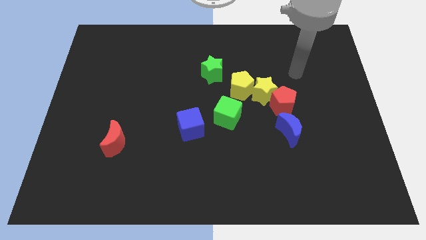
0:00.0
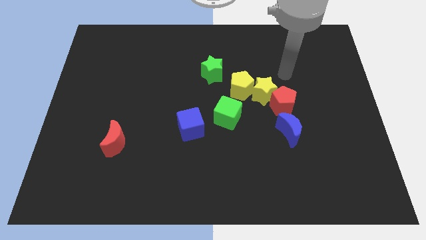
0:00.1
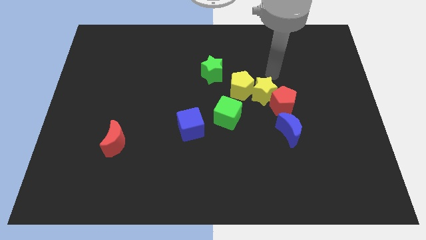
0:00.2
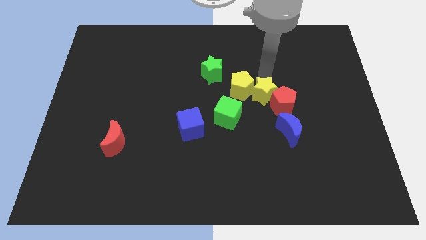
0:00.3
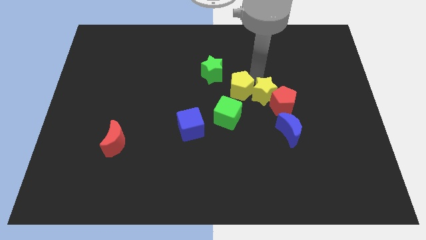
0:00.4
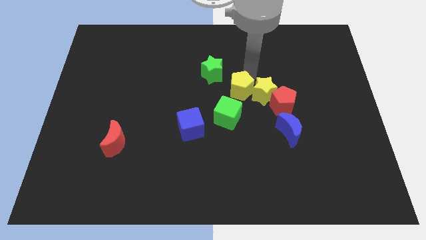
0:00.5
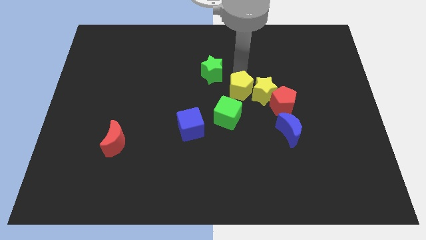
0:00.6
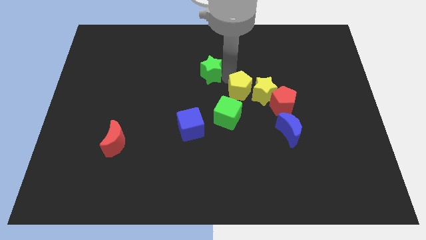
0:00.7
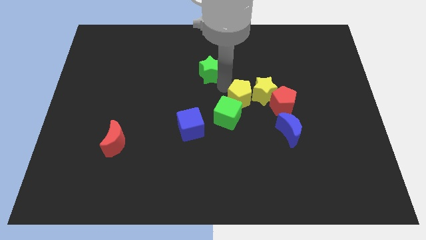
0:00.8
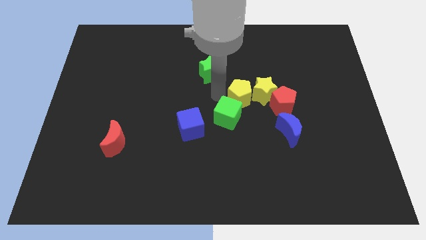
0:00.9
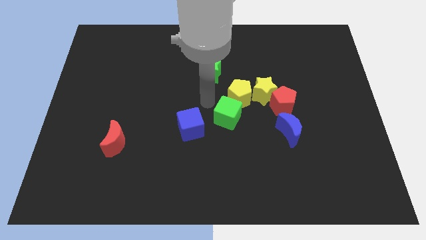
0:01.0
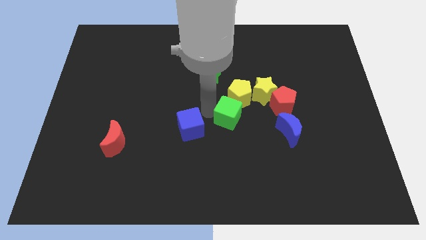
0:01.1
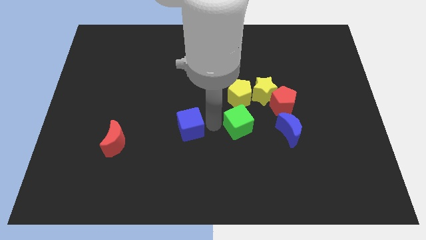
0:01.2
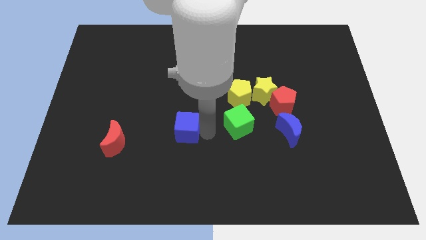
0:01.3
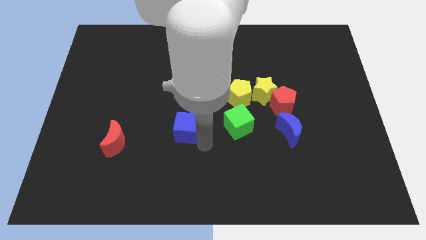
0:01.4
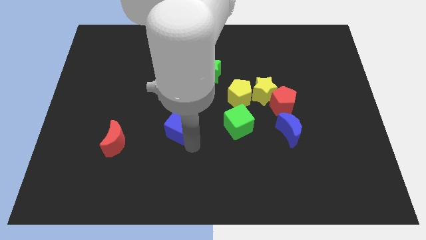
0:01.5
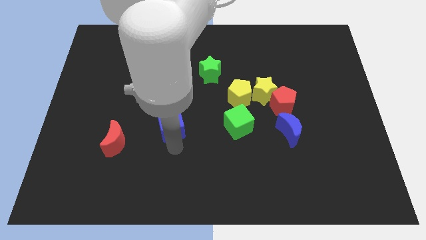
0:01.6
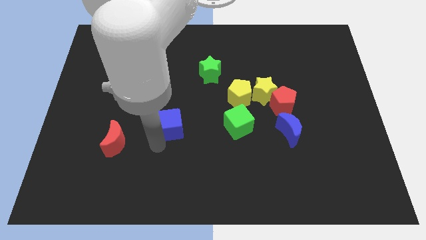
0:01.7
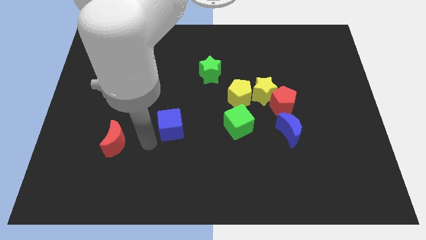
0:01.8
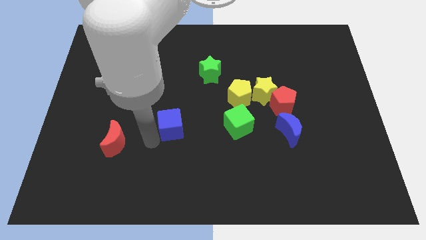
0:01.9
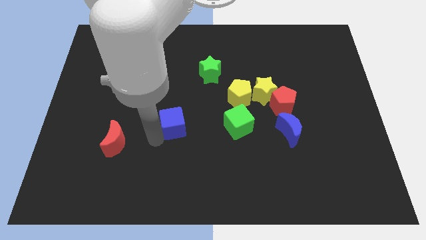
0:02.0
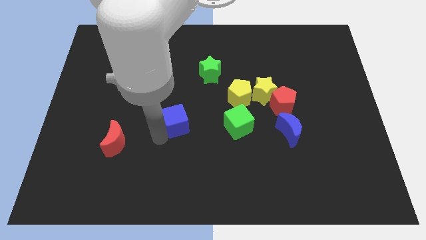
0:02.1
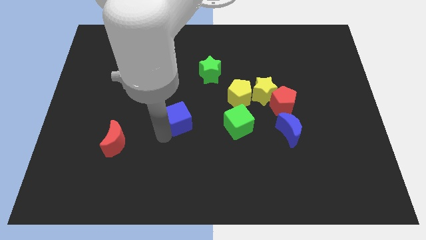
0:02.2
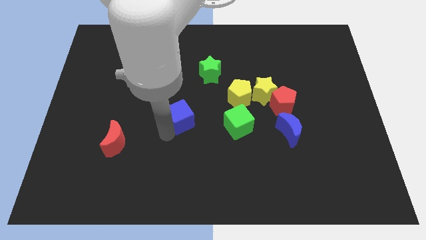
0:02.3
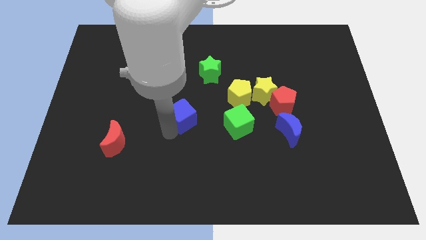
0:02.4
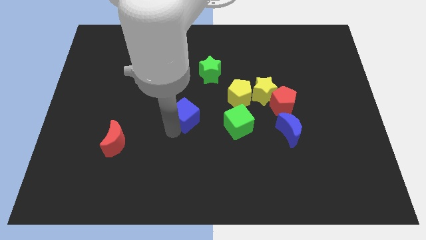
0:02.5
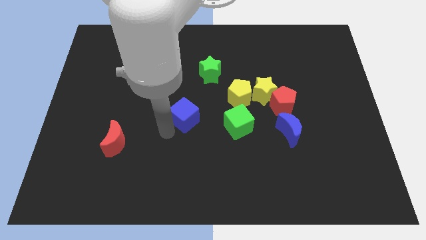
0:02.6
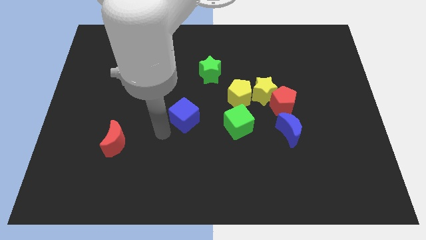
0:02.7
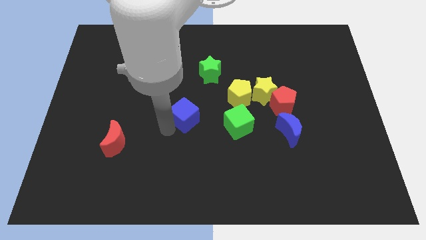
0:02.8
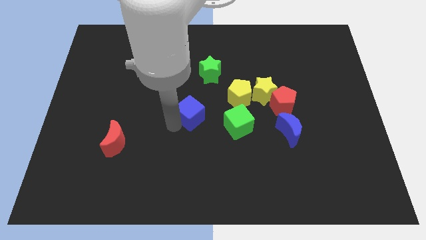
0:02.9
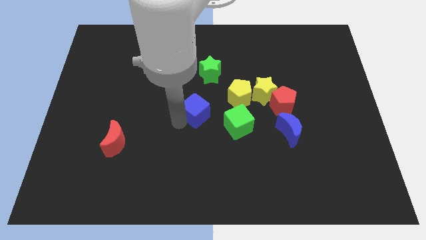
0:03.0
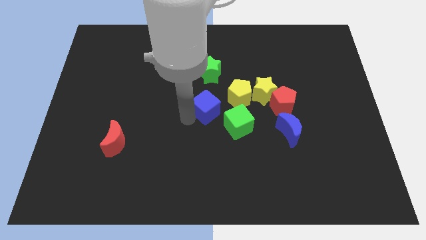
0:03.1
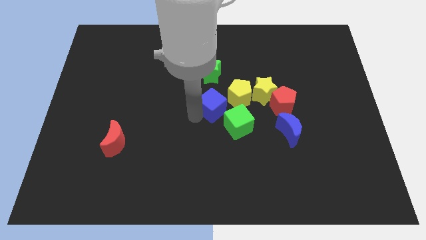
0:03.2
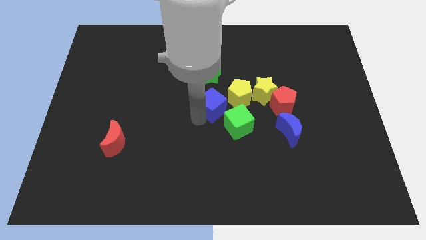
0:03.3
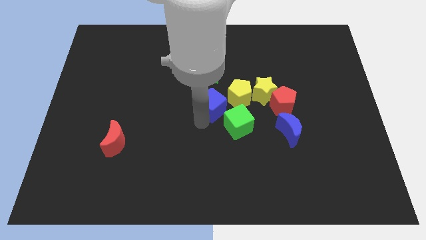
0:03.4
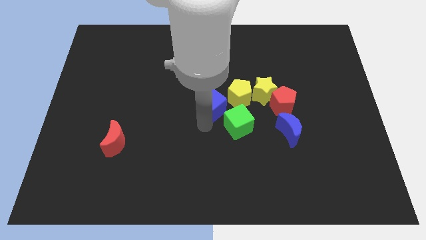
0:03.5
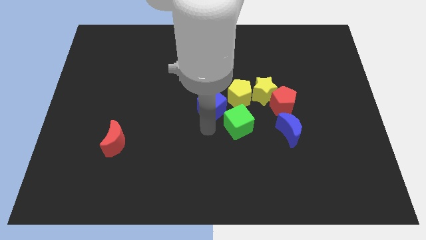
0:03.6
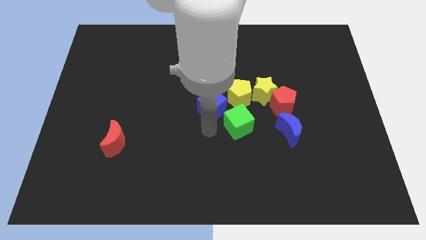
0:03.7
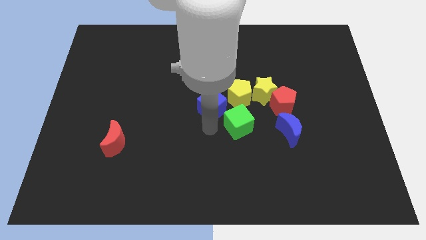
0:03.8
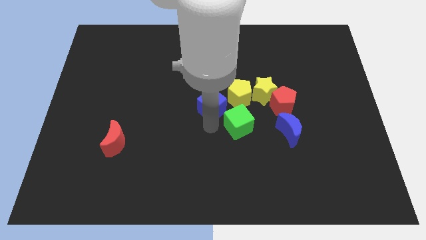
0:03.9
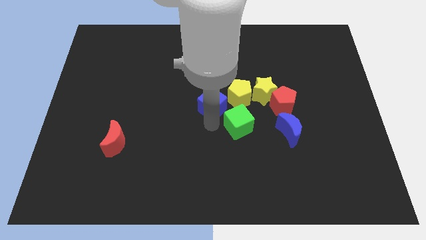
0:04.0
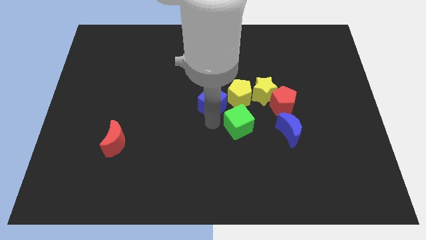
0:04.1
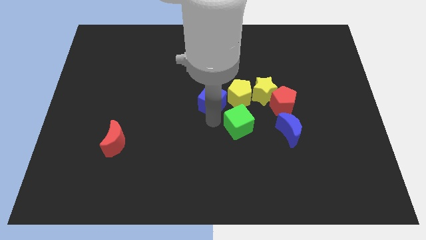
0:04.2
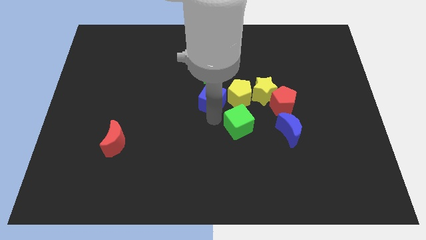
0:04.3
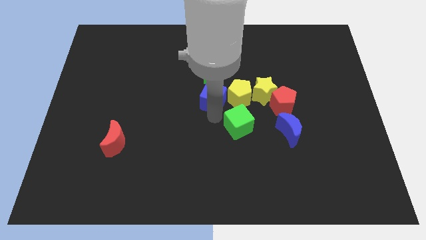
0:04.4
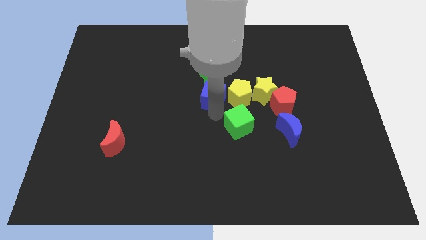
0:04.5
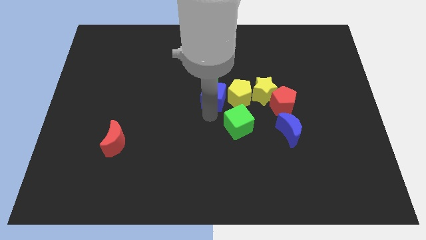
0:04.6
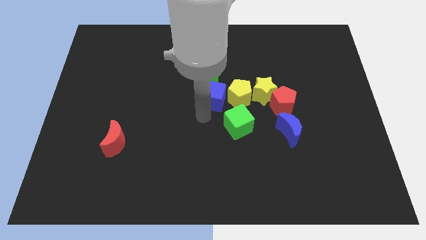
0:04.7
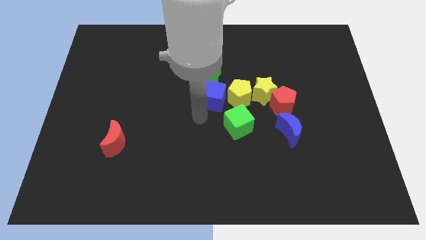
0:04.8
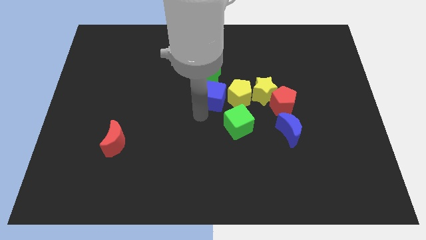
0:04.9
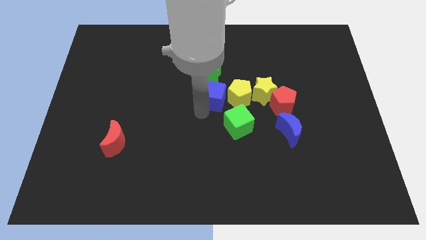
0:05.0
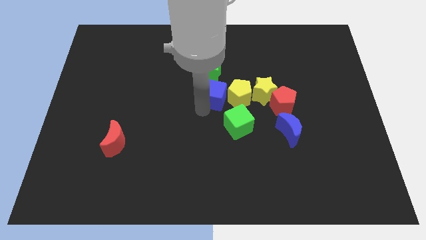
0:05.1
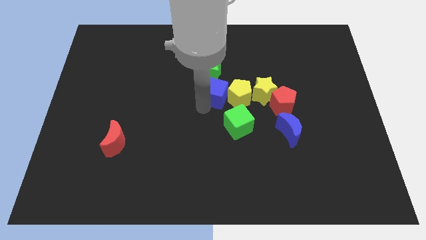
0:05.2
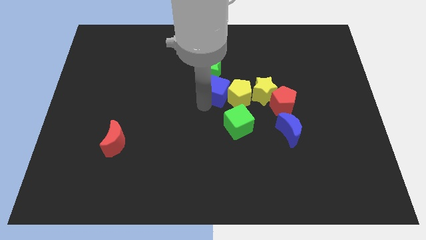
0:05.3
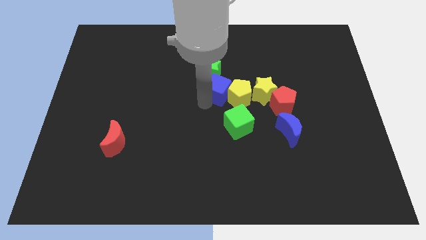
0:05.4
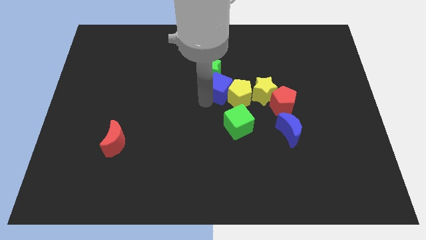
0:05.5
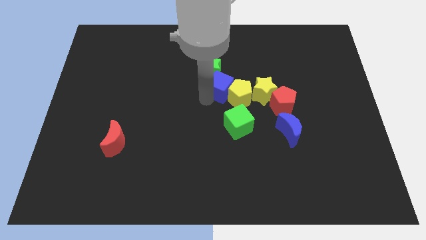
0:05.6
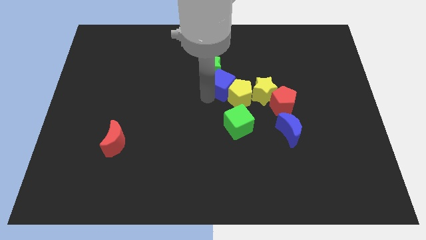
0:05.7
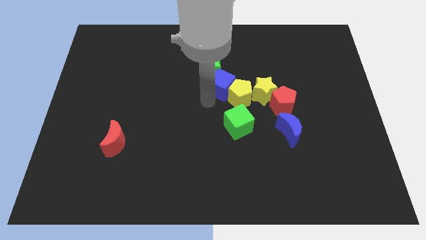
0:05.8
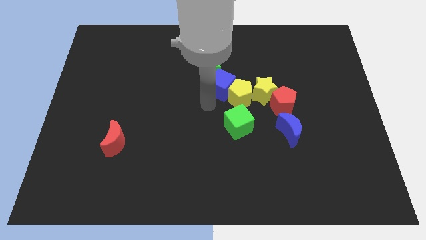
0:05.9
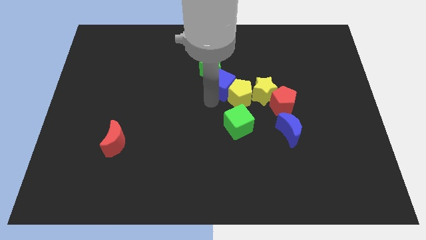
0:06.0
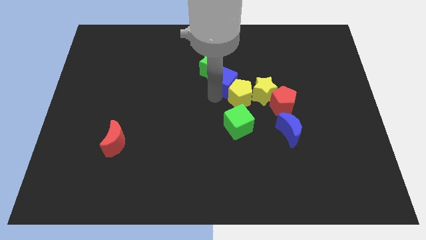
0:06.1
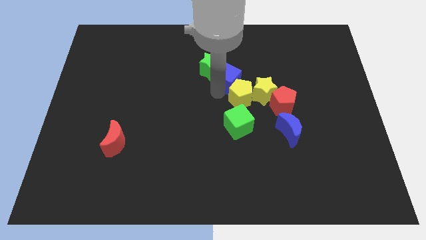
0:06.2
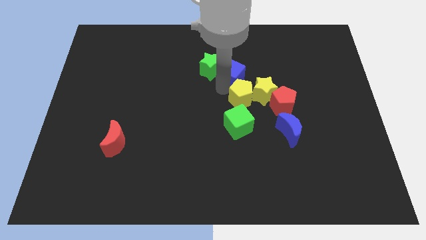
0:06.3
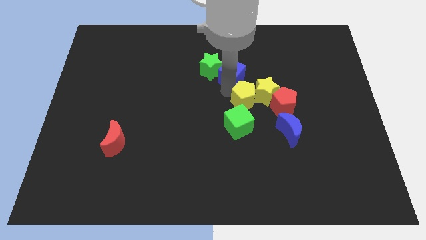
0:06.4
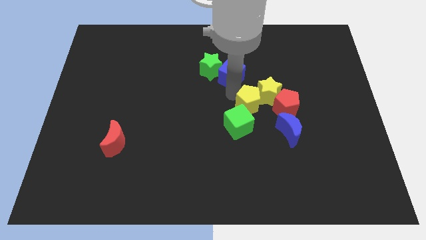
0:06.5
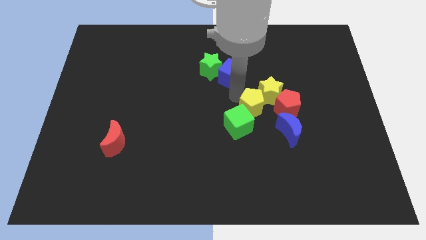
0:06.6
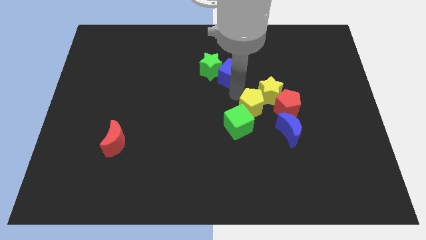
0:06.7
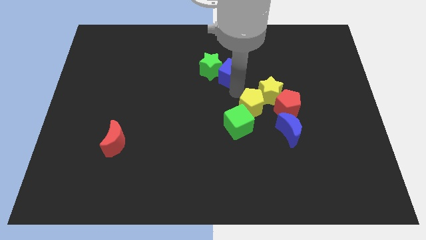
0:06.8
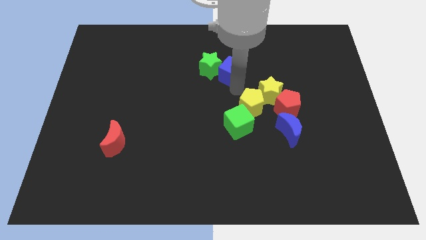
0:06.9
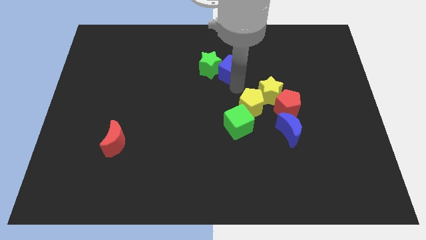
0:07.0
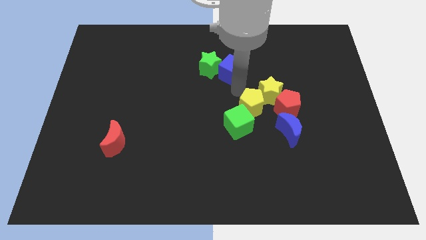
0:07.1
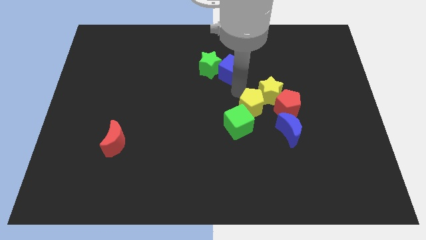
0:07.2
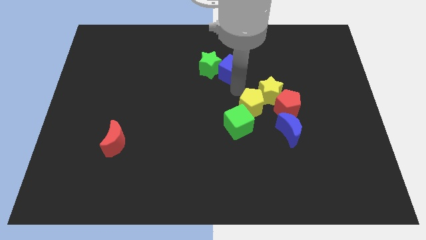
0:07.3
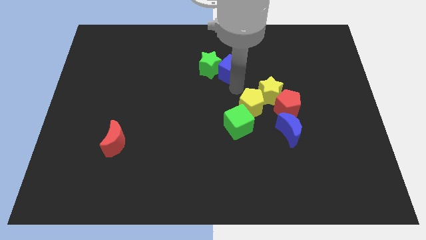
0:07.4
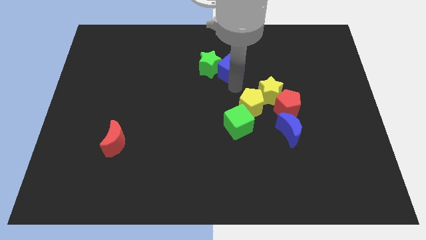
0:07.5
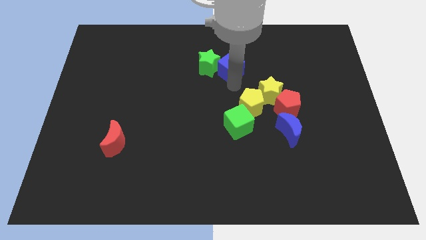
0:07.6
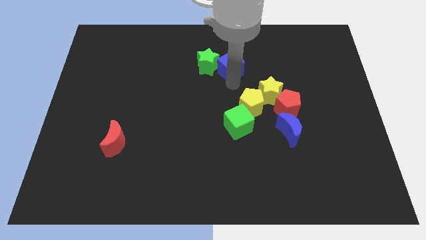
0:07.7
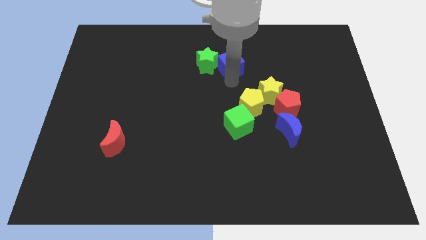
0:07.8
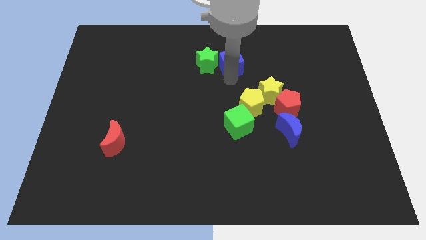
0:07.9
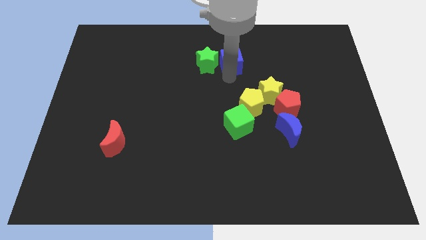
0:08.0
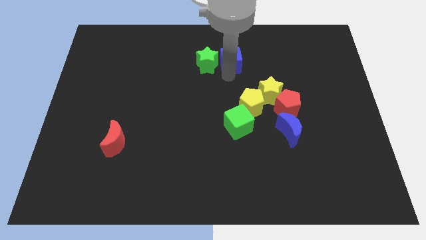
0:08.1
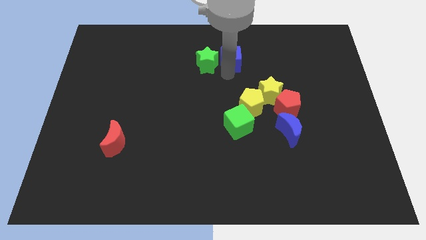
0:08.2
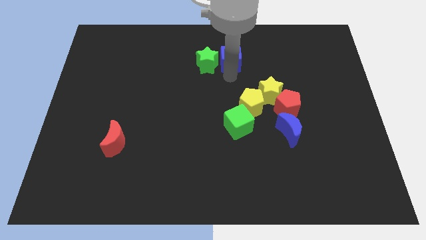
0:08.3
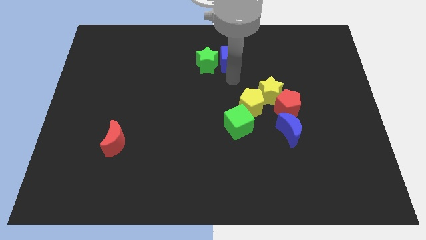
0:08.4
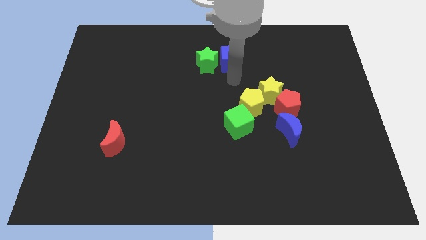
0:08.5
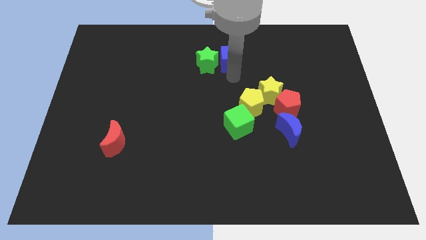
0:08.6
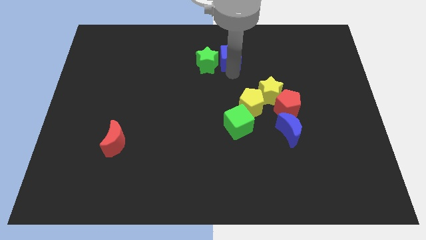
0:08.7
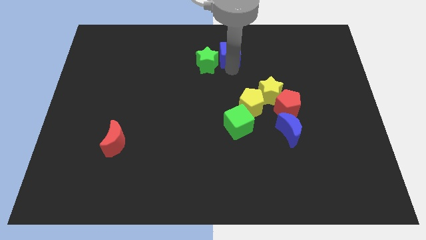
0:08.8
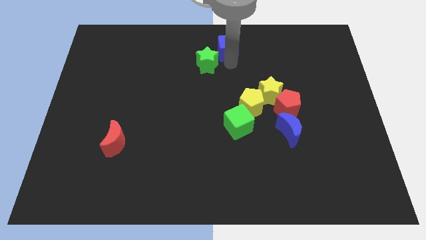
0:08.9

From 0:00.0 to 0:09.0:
put the blue cube to the towards your base
